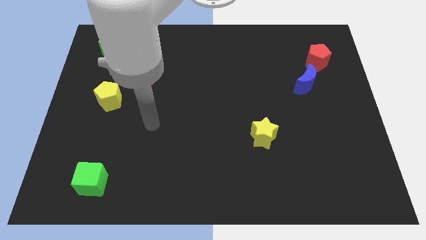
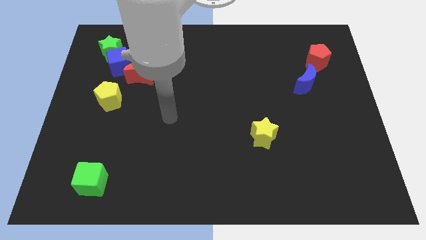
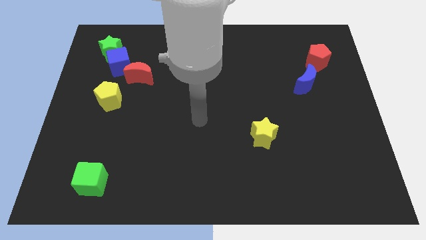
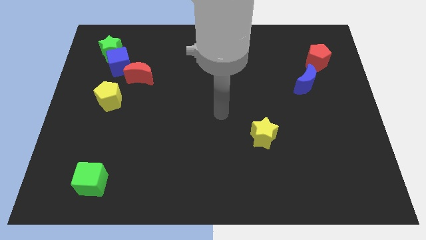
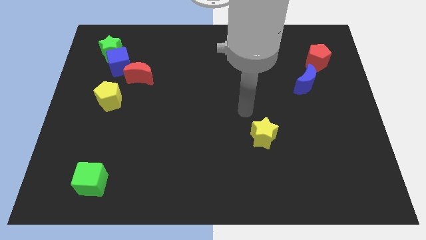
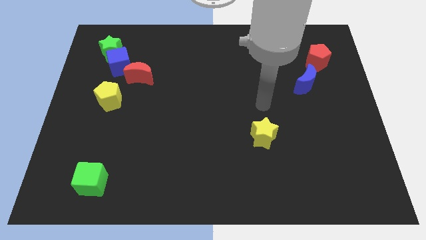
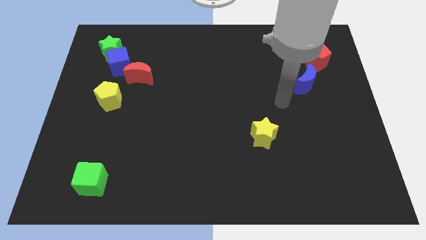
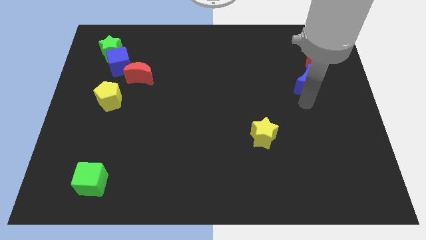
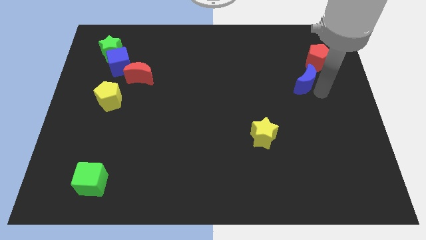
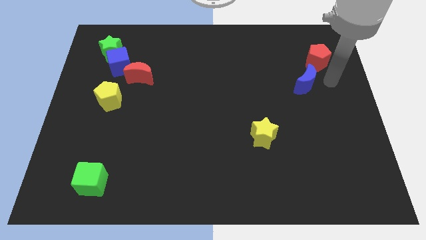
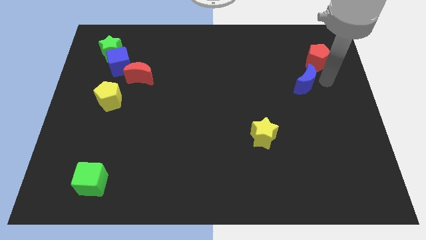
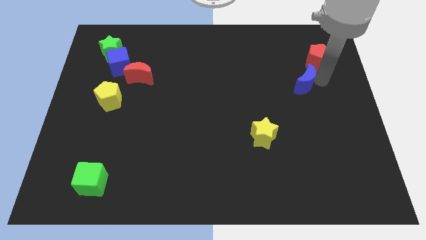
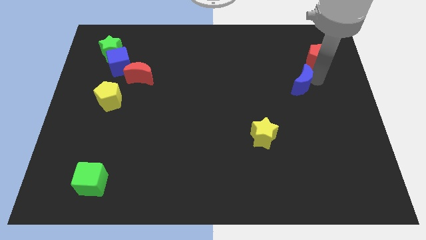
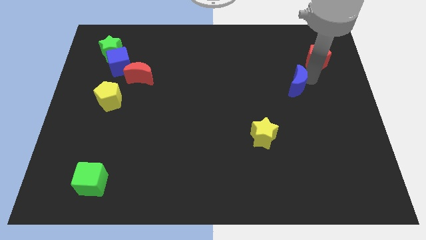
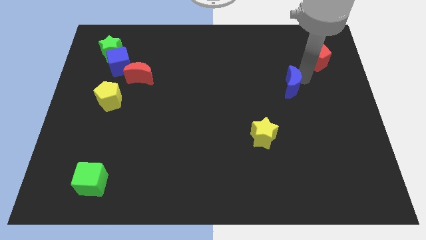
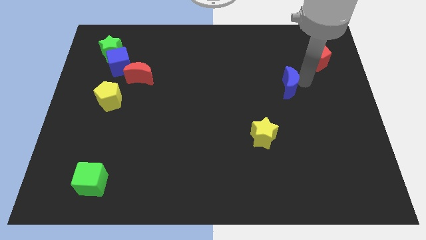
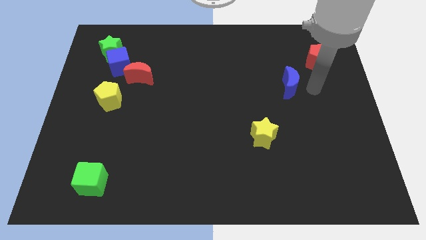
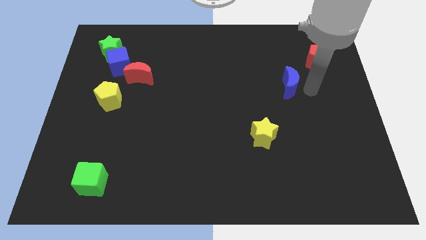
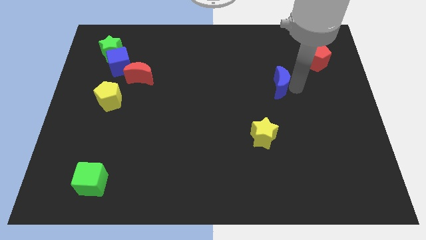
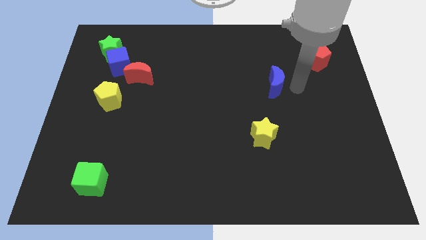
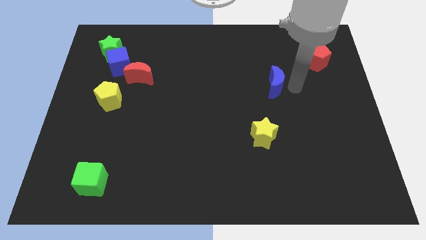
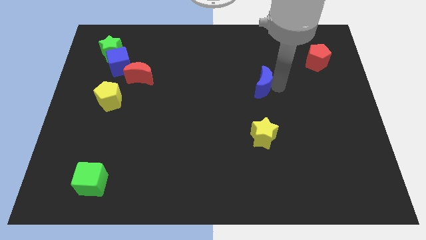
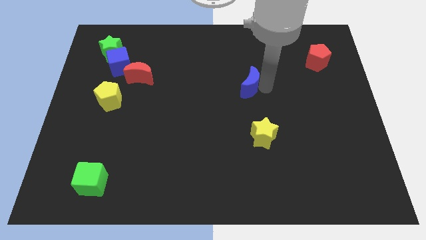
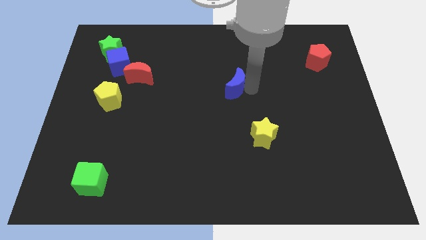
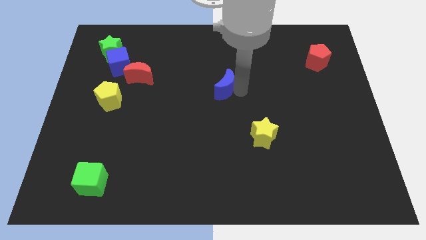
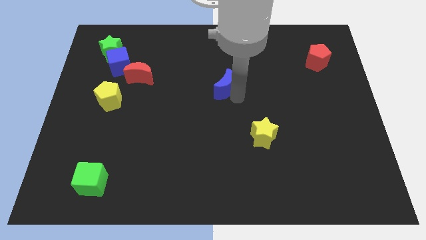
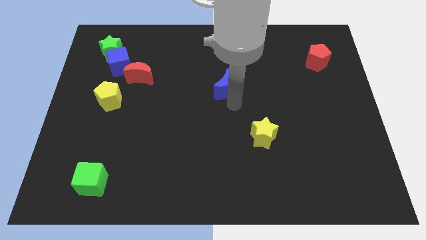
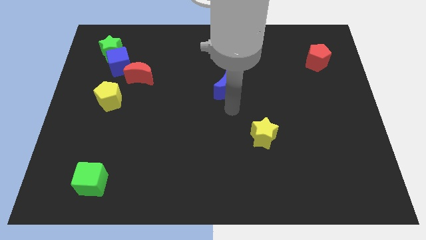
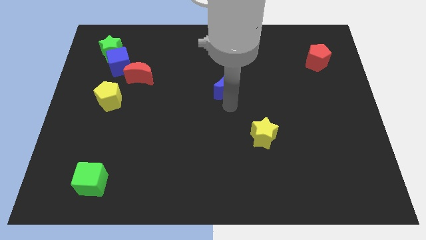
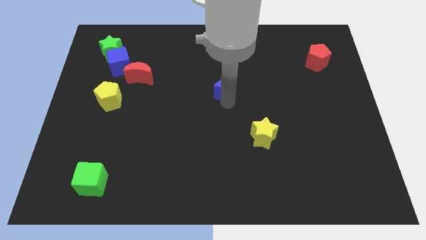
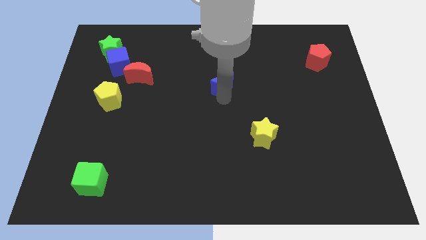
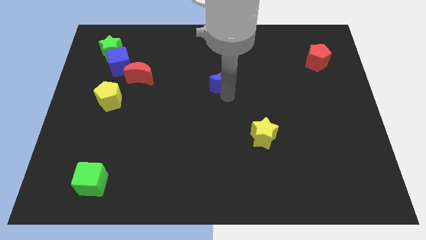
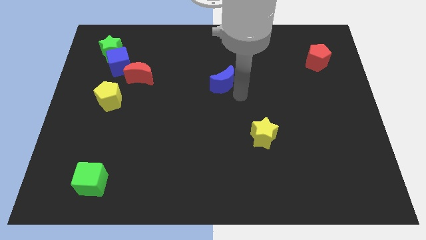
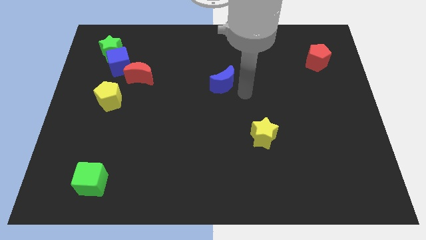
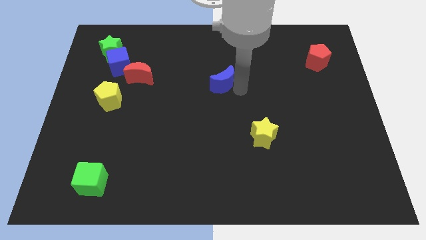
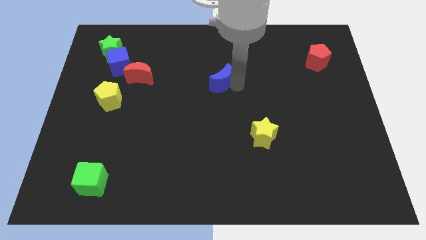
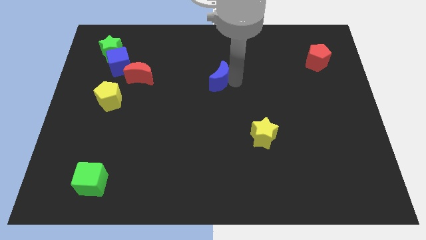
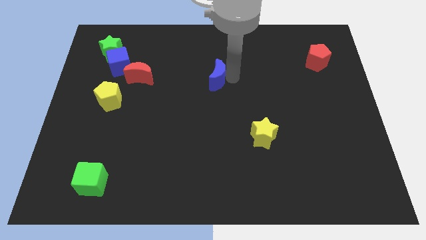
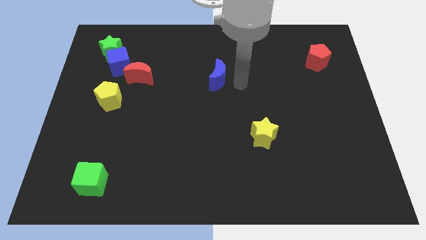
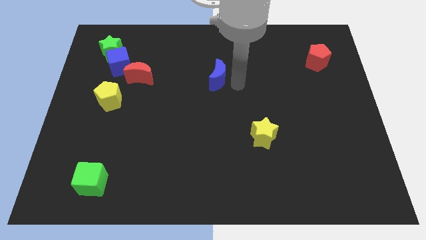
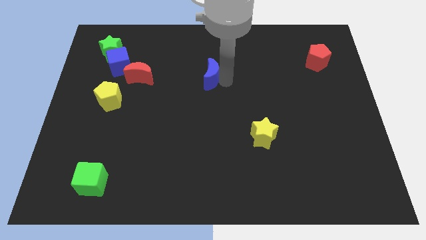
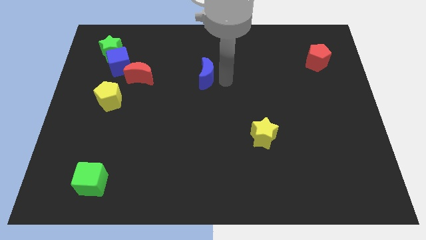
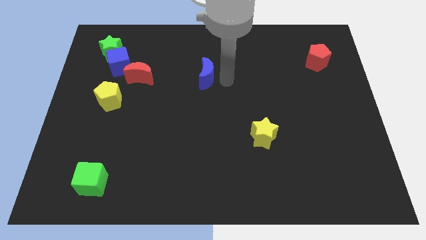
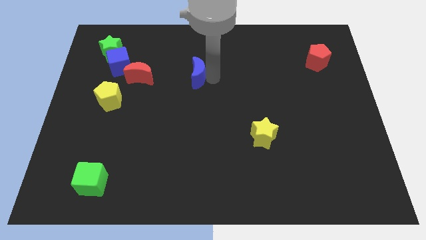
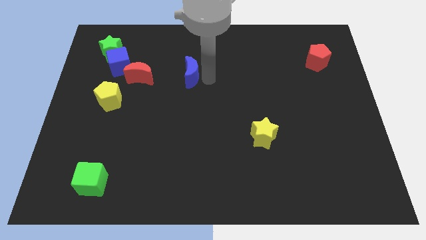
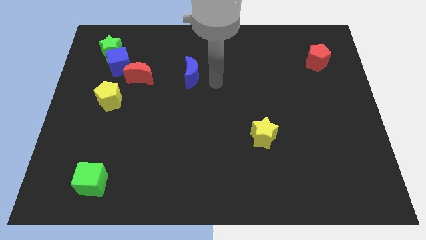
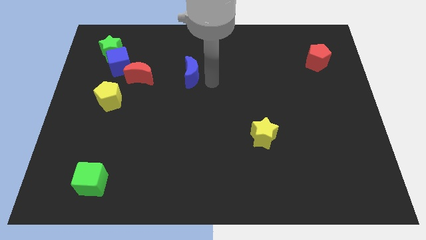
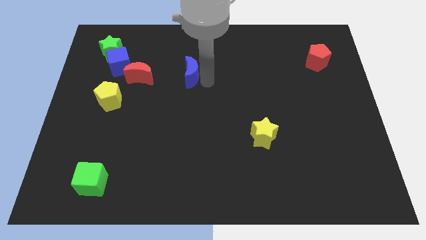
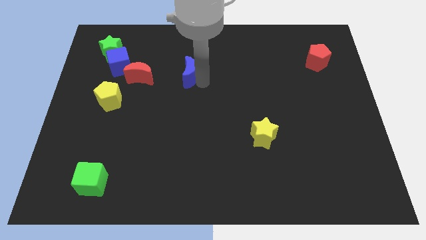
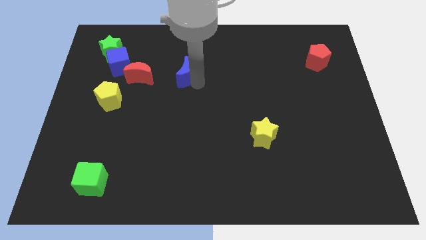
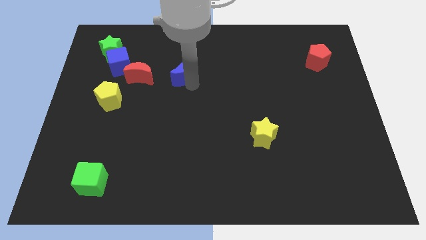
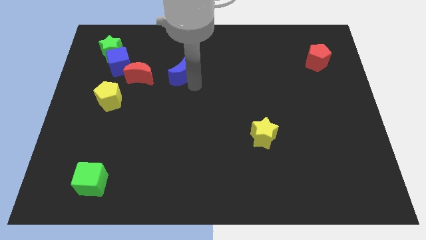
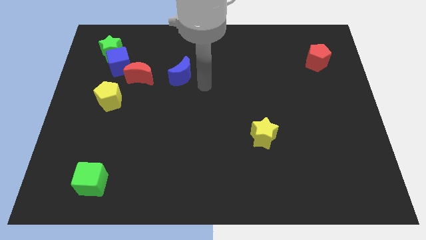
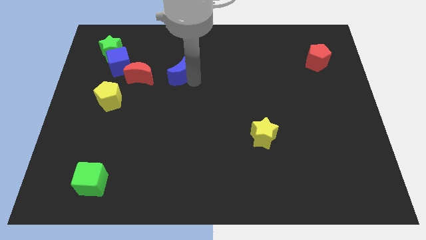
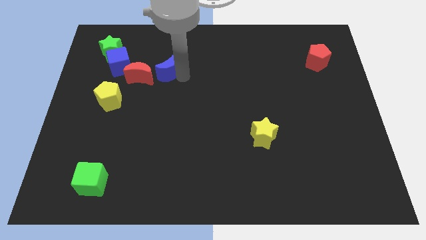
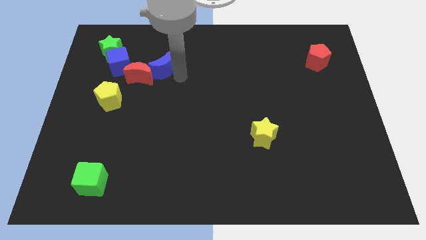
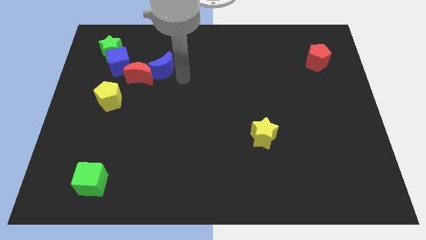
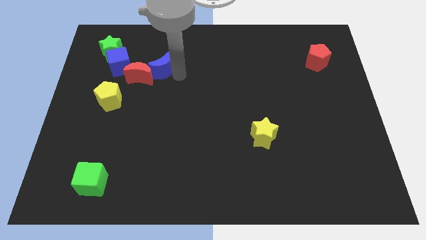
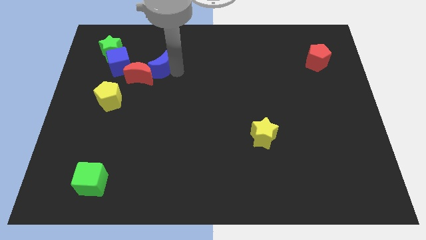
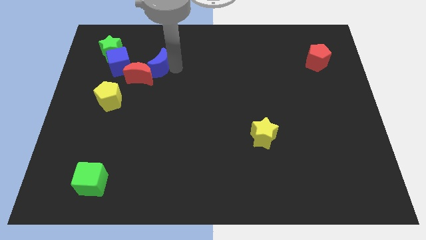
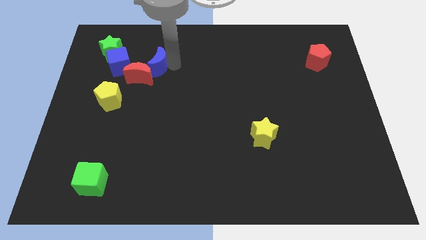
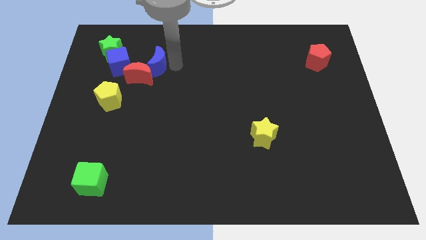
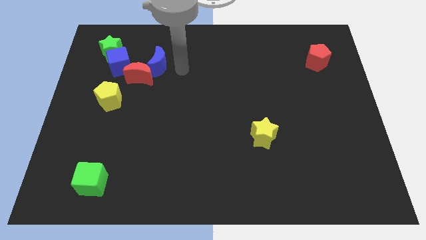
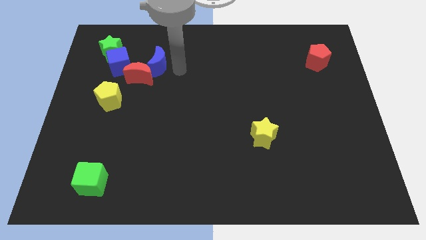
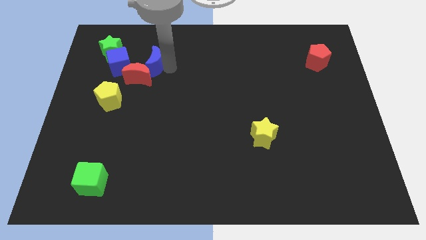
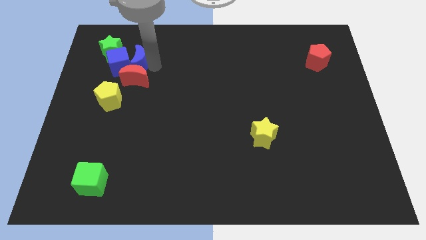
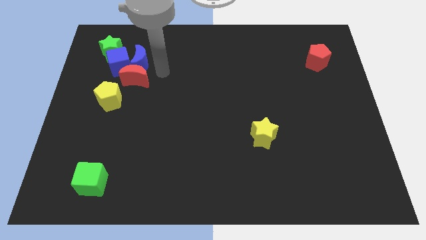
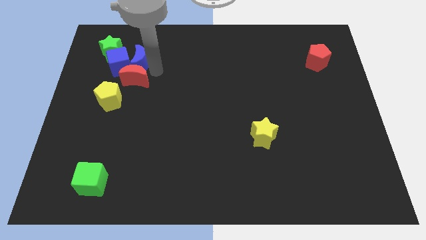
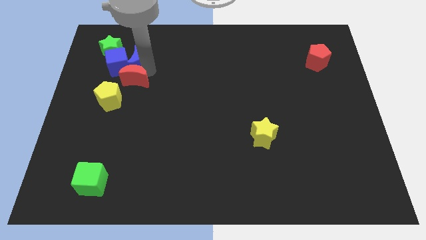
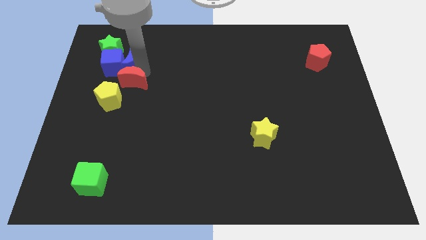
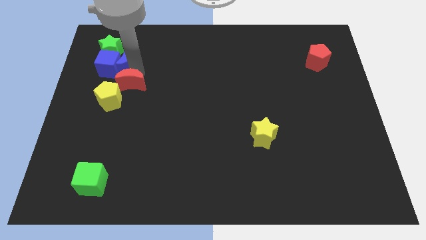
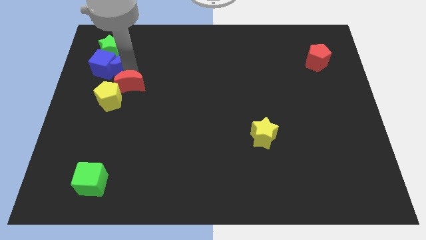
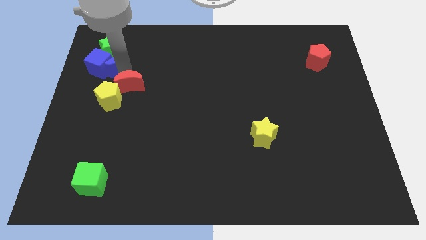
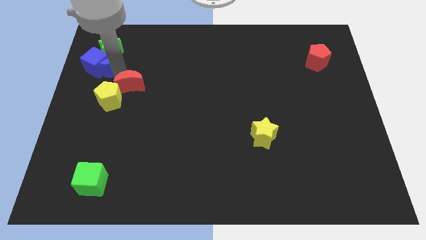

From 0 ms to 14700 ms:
slide the blue moon next to the green star
